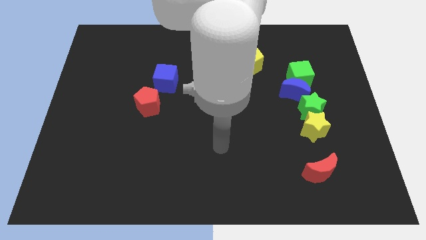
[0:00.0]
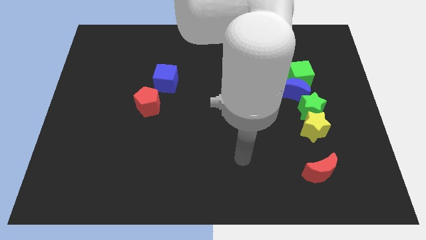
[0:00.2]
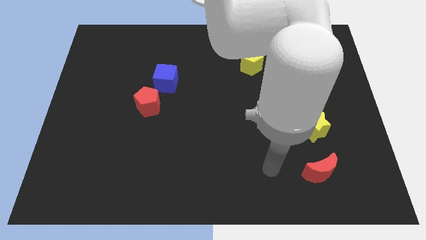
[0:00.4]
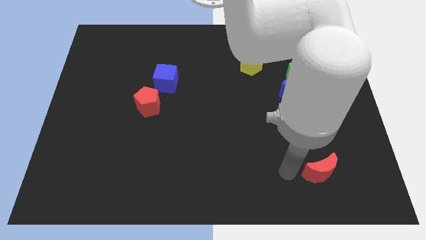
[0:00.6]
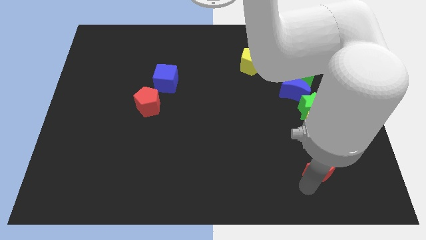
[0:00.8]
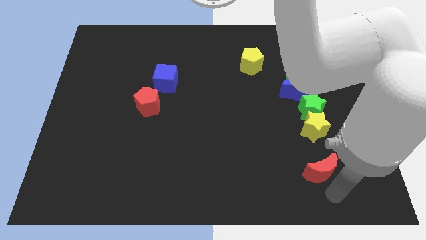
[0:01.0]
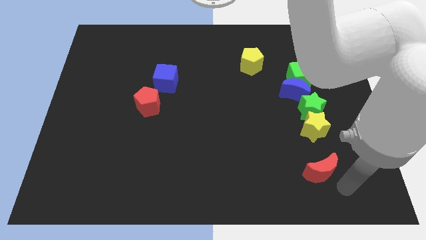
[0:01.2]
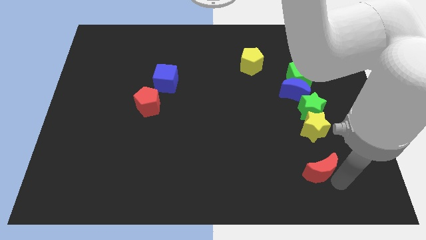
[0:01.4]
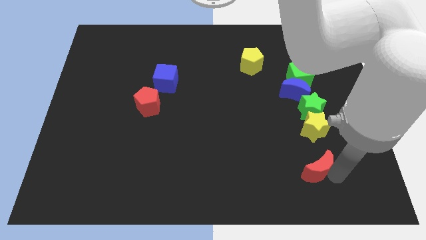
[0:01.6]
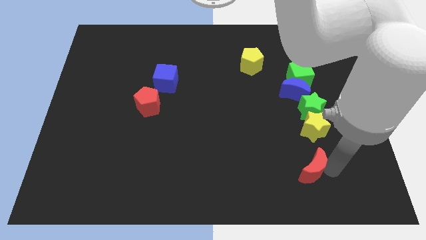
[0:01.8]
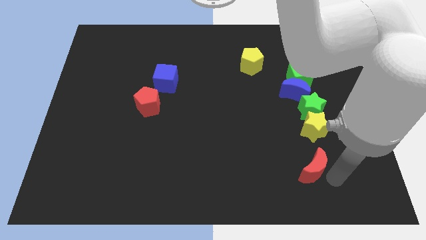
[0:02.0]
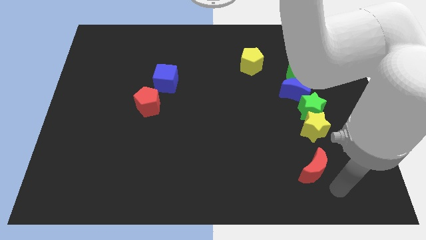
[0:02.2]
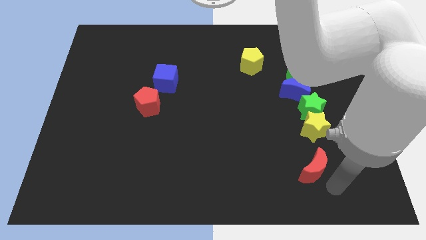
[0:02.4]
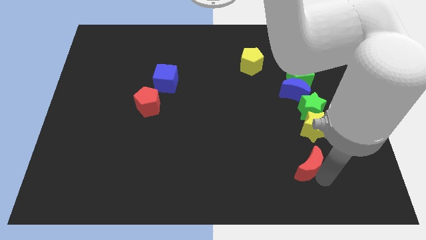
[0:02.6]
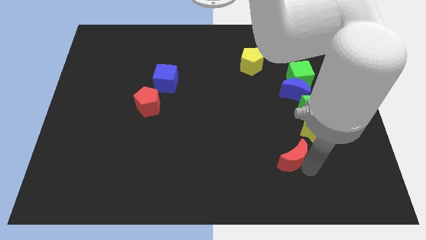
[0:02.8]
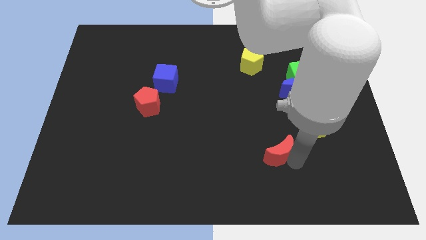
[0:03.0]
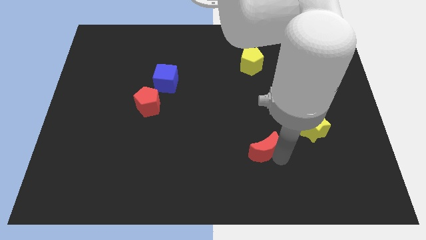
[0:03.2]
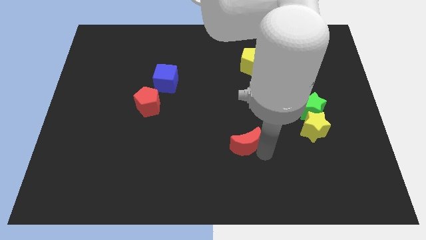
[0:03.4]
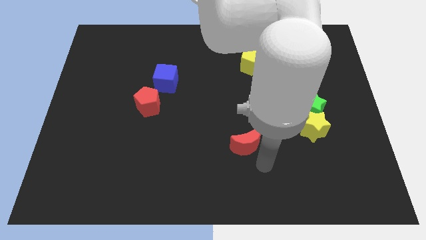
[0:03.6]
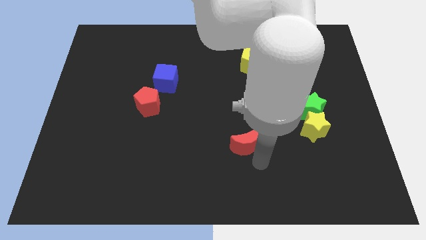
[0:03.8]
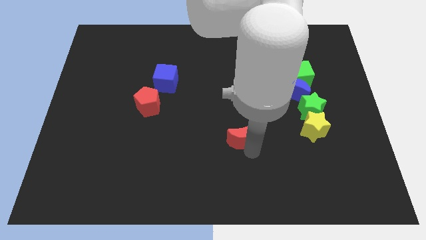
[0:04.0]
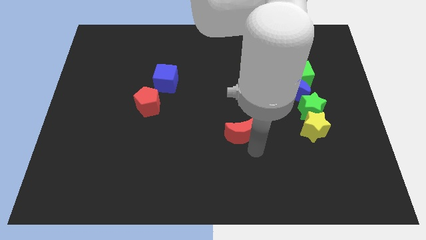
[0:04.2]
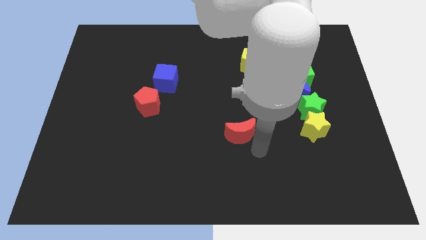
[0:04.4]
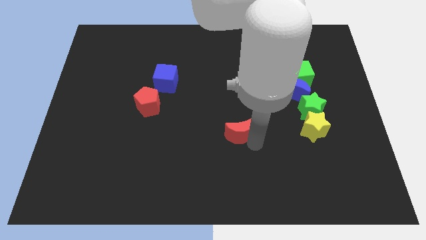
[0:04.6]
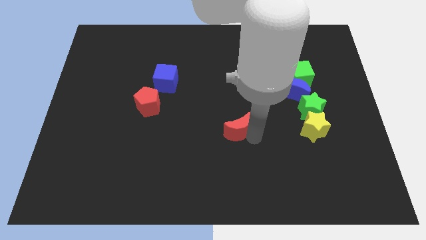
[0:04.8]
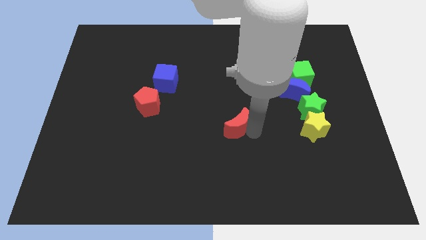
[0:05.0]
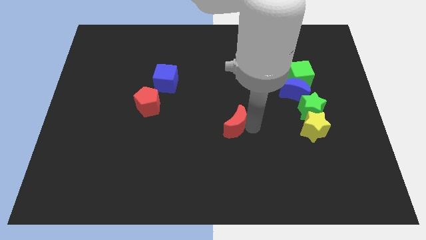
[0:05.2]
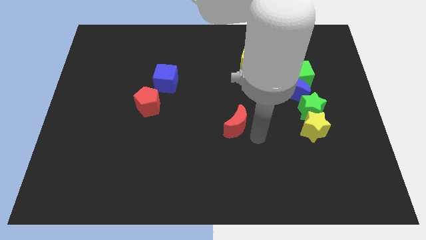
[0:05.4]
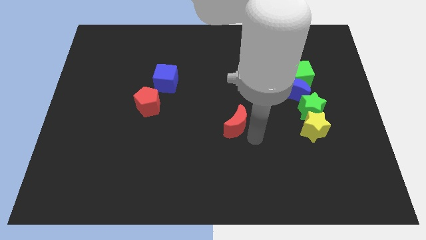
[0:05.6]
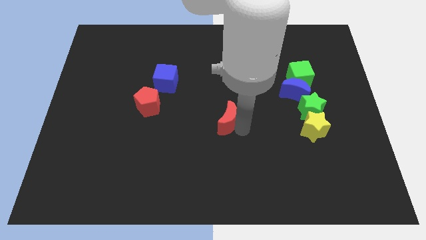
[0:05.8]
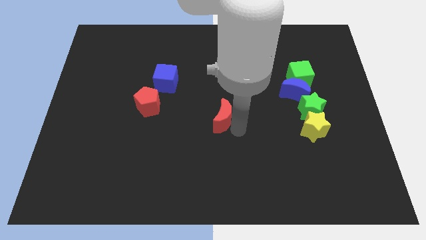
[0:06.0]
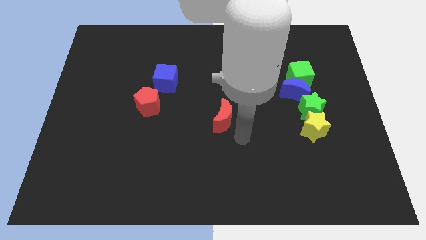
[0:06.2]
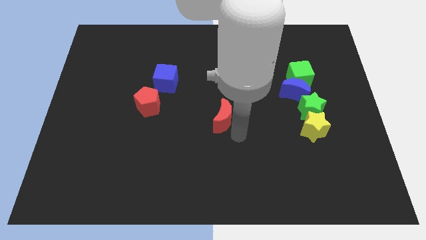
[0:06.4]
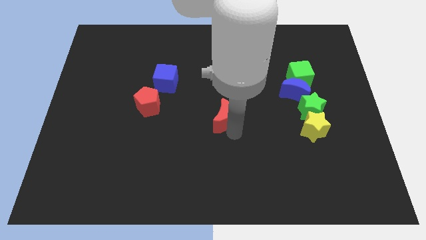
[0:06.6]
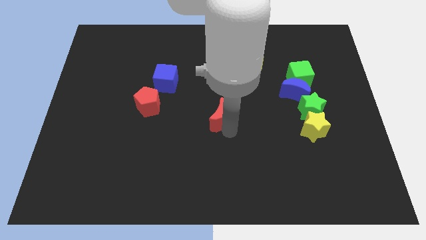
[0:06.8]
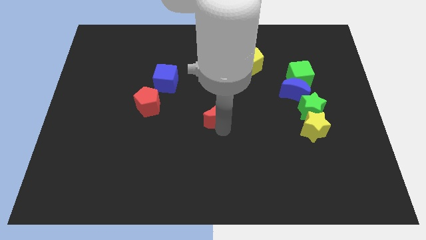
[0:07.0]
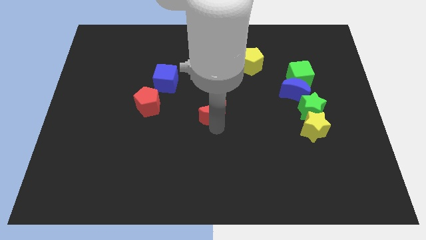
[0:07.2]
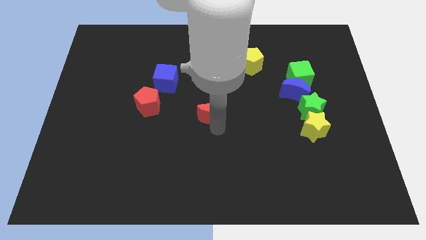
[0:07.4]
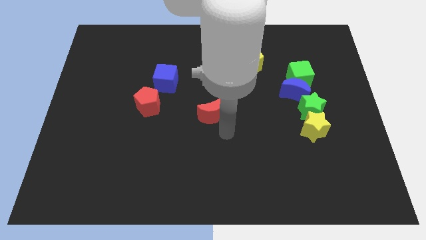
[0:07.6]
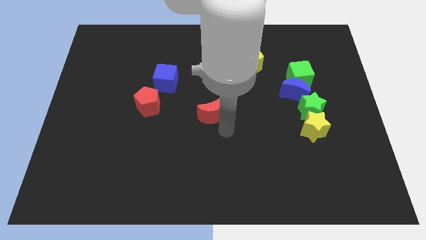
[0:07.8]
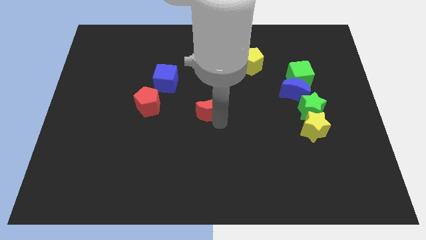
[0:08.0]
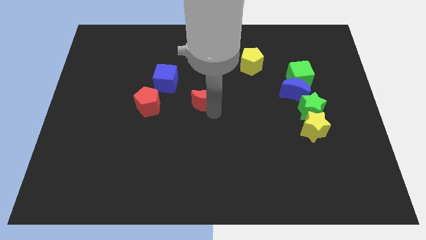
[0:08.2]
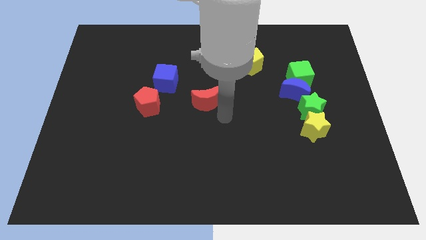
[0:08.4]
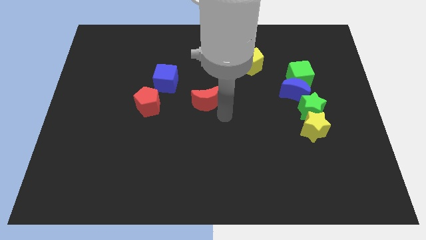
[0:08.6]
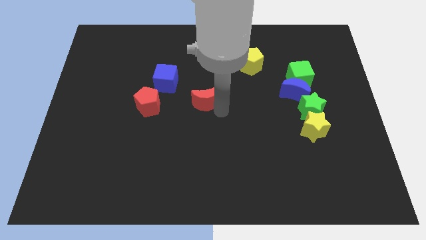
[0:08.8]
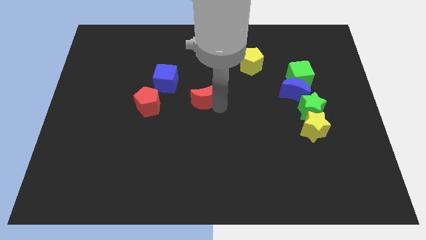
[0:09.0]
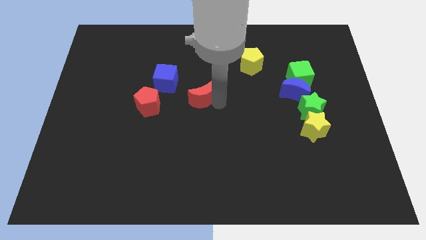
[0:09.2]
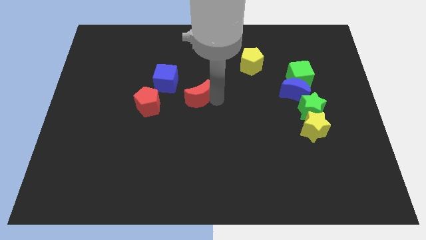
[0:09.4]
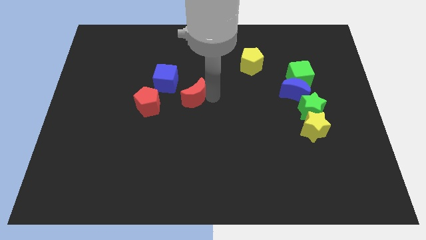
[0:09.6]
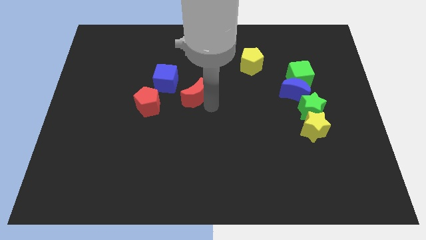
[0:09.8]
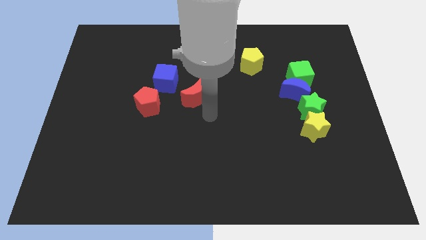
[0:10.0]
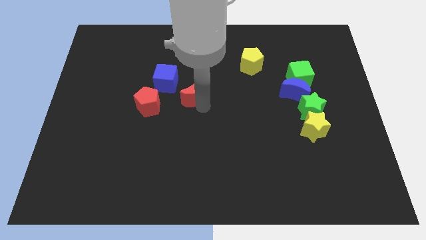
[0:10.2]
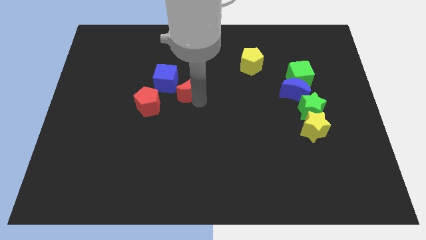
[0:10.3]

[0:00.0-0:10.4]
put the red moon to the top right side of the red pentagon

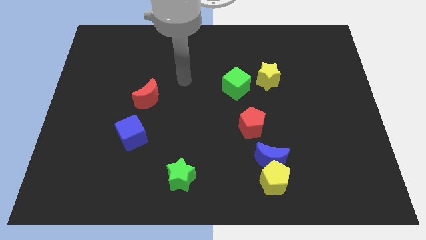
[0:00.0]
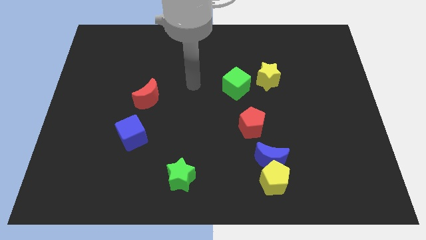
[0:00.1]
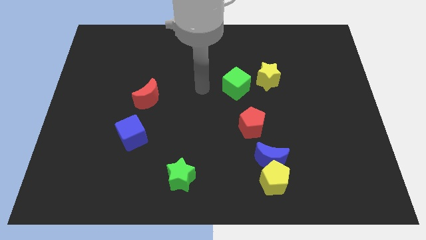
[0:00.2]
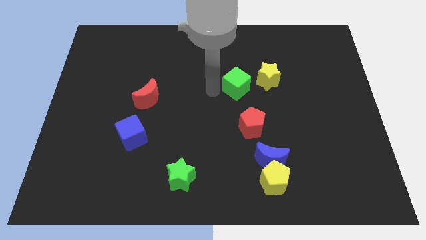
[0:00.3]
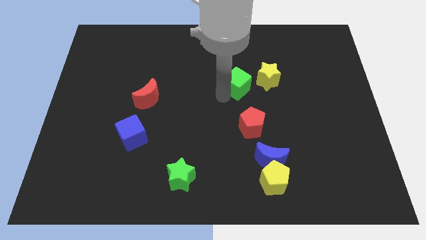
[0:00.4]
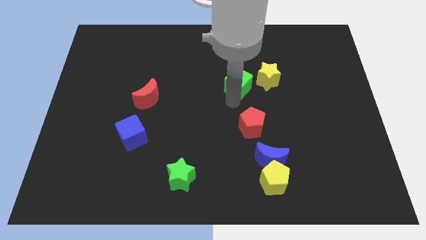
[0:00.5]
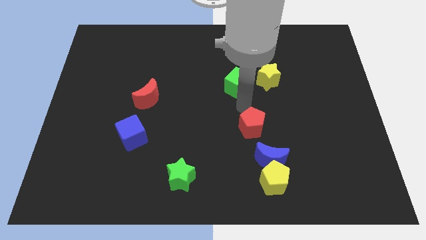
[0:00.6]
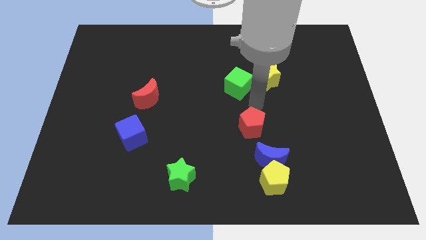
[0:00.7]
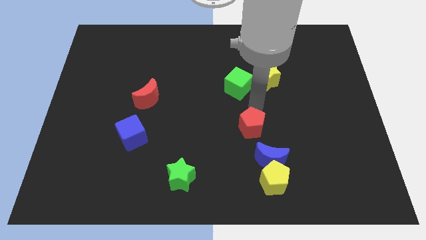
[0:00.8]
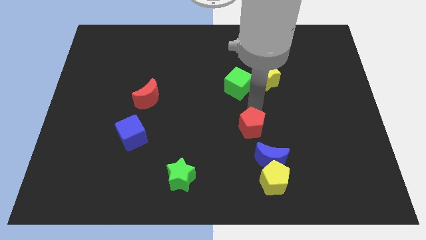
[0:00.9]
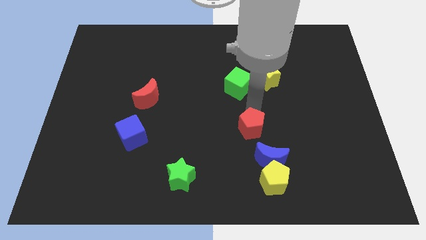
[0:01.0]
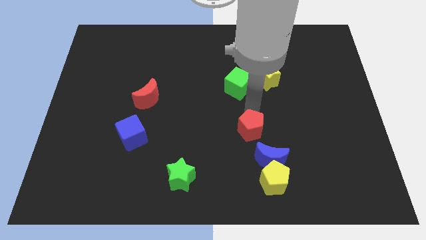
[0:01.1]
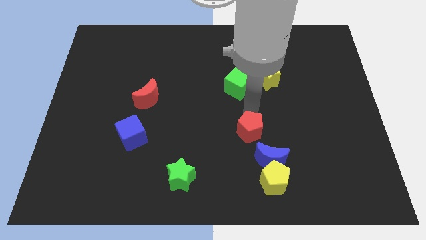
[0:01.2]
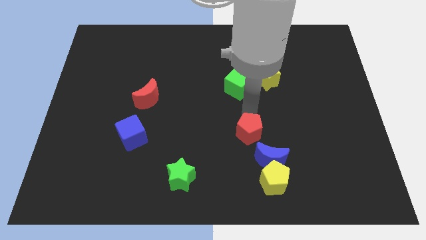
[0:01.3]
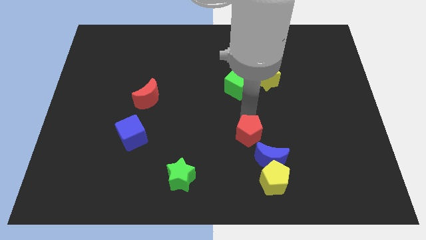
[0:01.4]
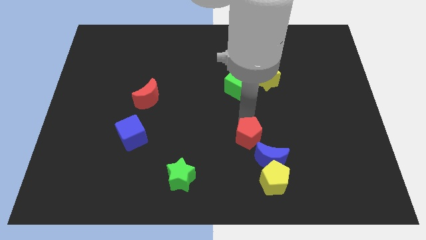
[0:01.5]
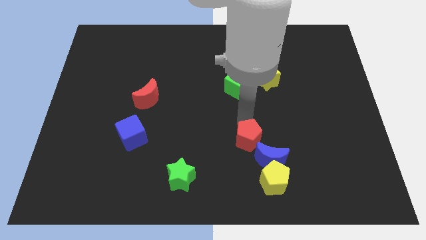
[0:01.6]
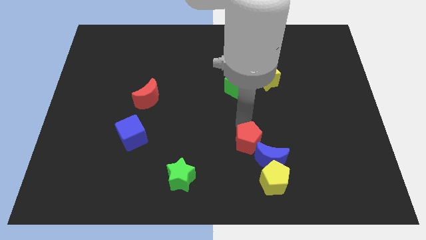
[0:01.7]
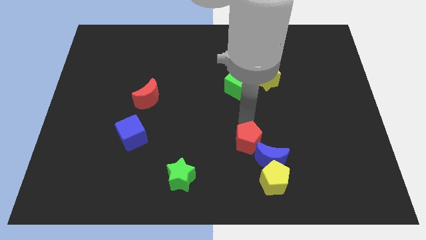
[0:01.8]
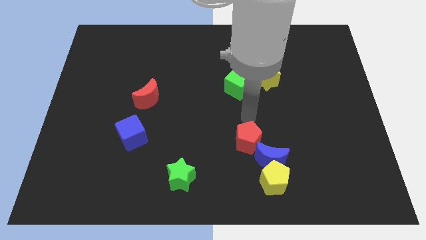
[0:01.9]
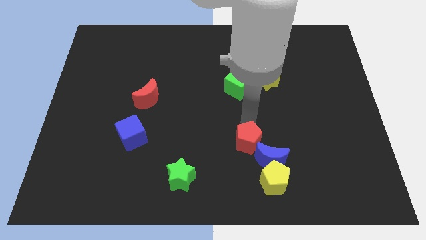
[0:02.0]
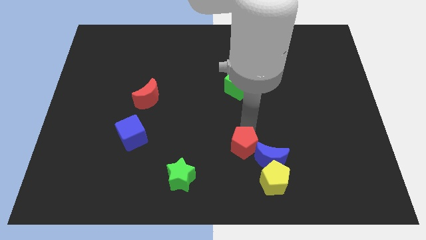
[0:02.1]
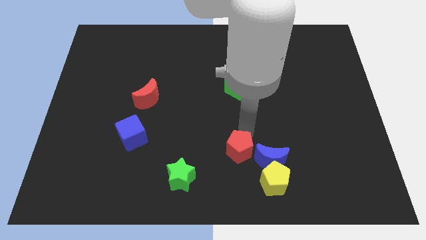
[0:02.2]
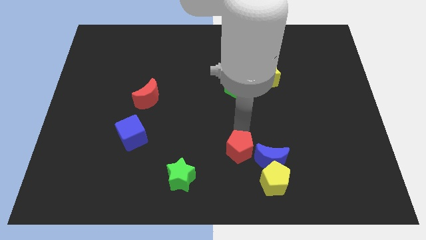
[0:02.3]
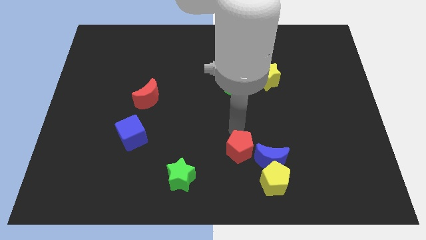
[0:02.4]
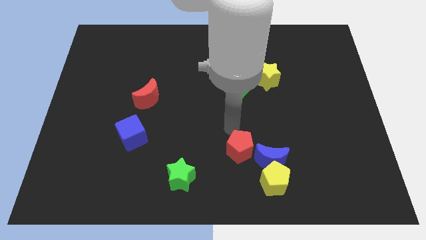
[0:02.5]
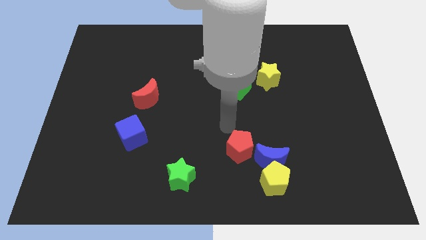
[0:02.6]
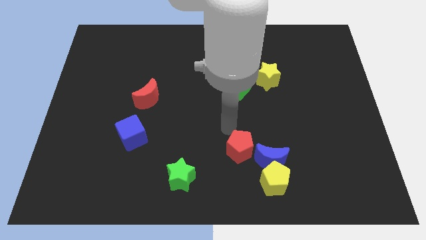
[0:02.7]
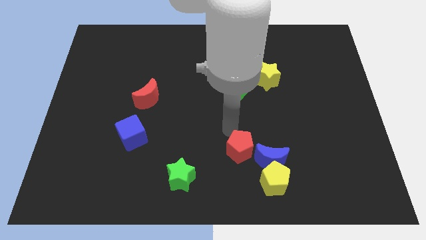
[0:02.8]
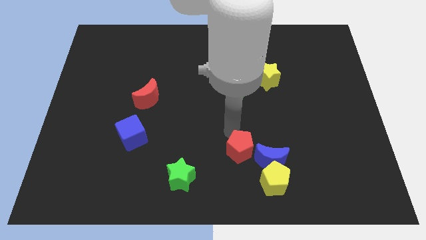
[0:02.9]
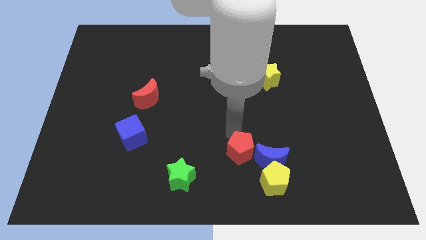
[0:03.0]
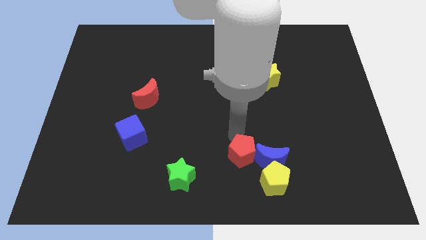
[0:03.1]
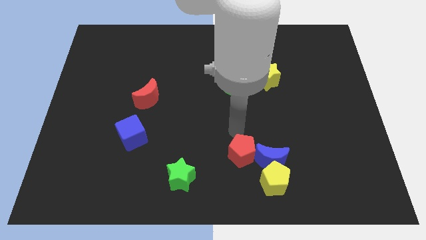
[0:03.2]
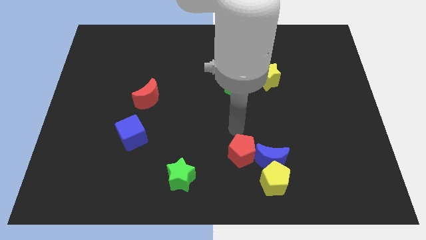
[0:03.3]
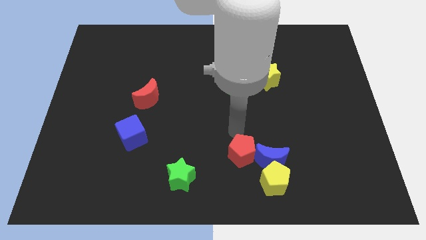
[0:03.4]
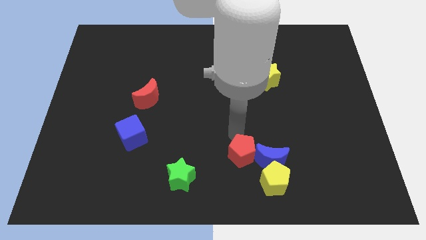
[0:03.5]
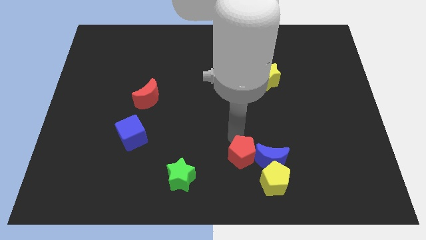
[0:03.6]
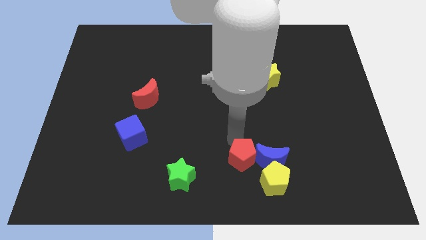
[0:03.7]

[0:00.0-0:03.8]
slide the red pentagon diagonally down and to the left of the blue moon
